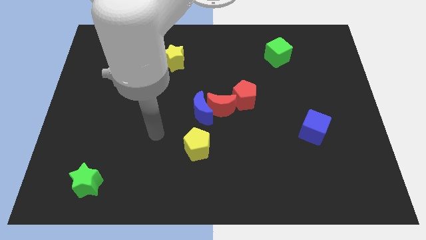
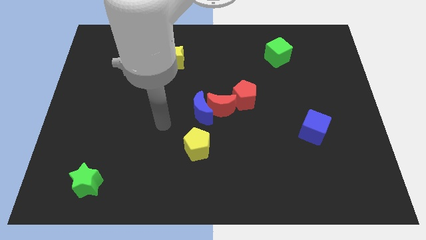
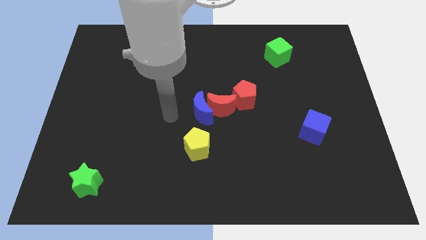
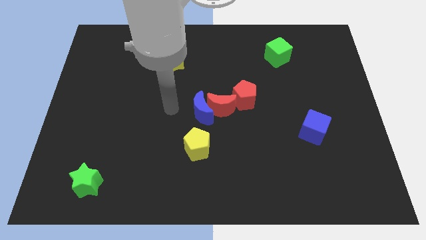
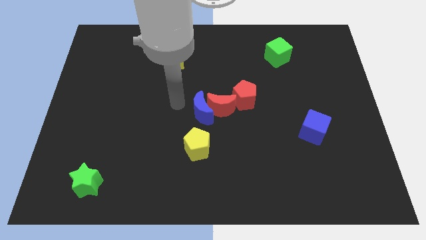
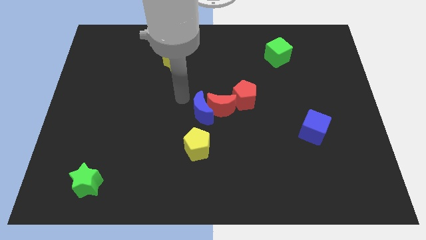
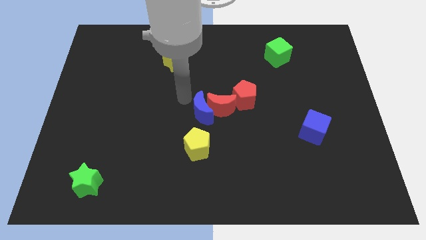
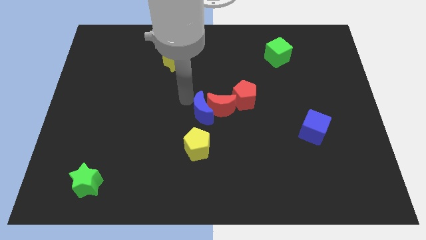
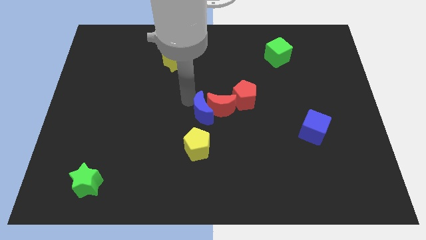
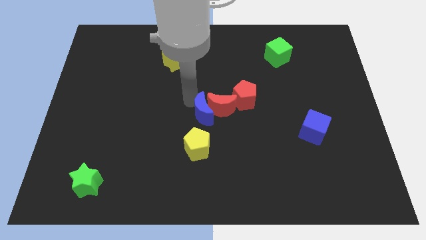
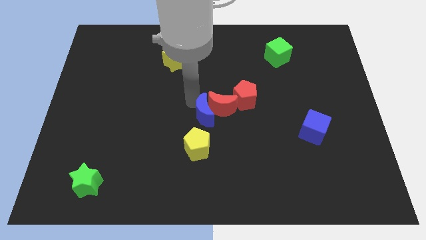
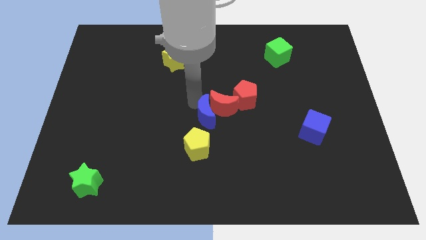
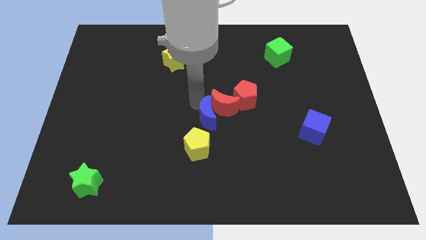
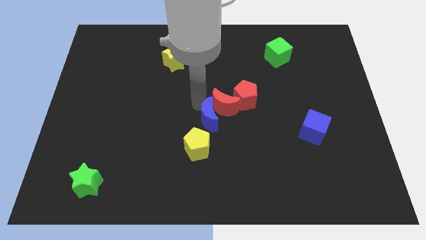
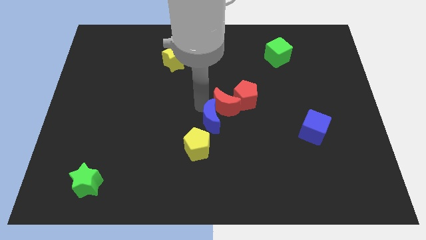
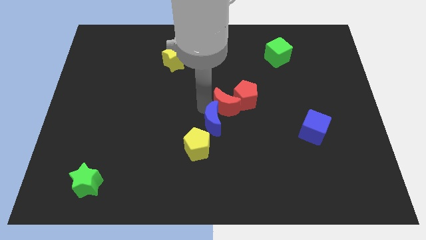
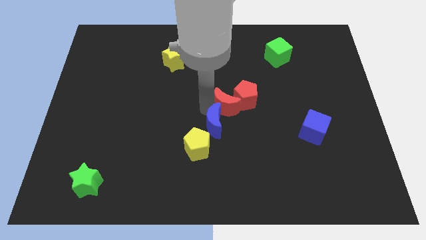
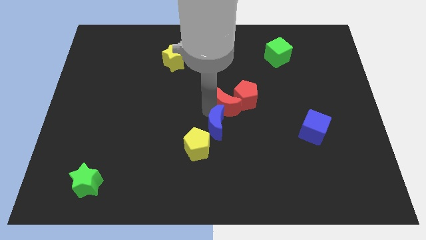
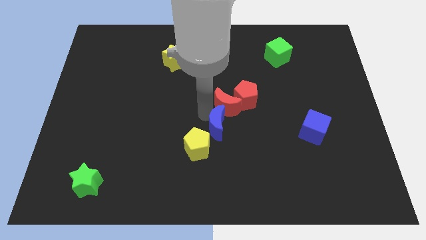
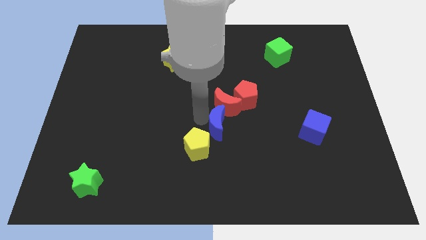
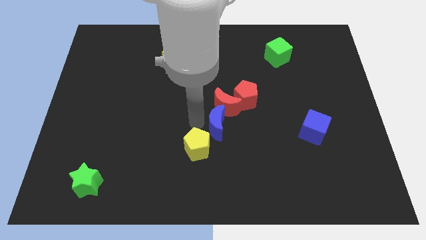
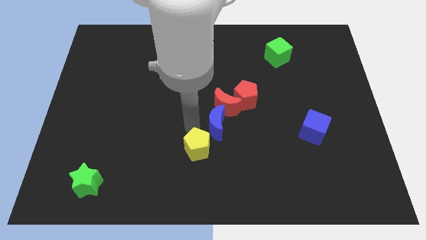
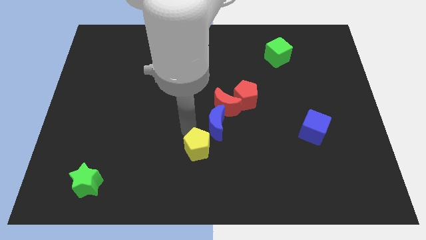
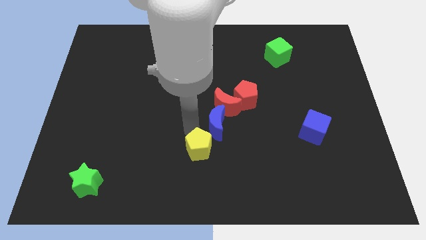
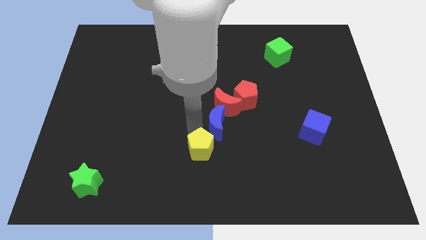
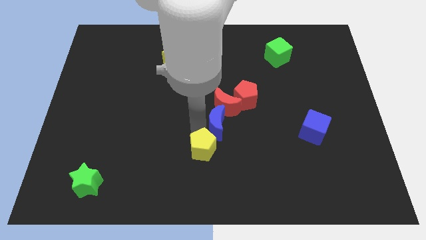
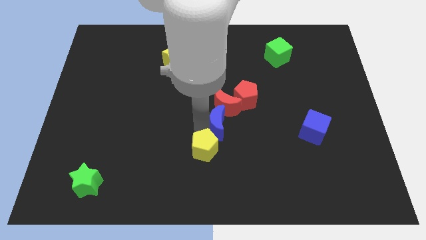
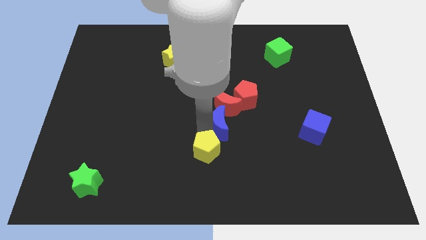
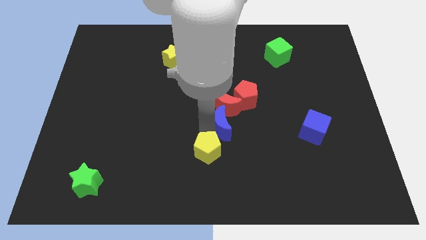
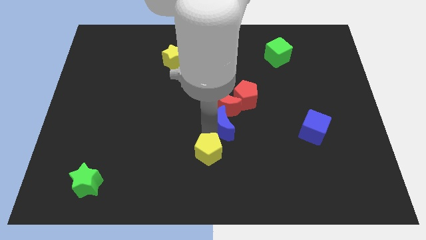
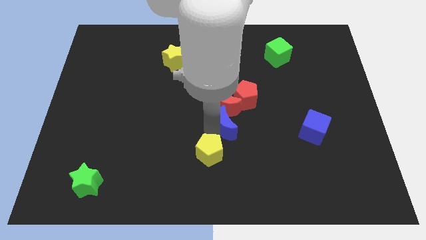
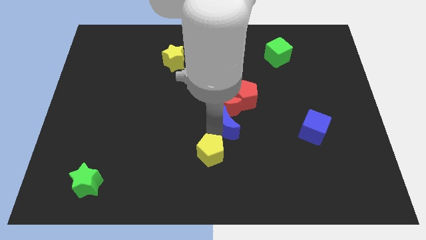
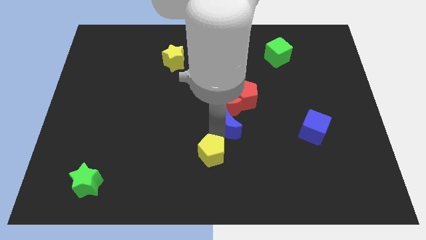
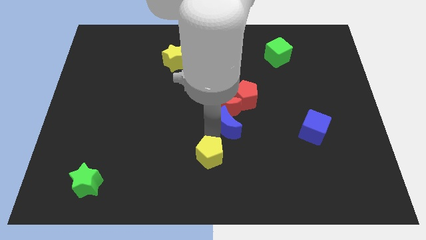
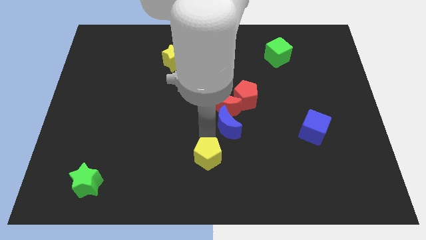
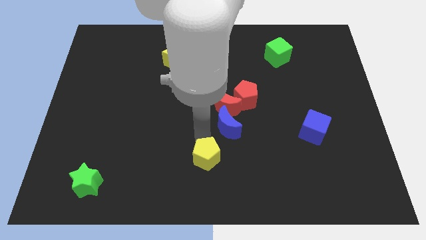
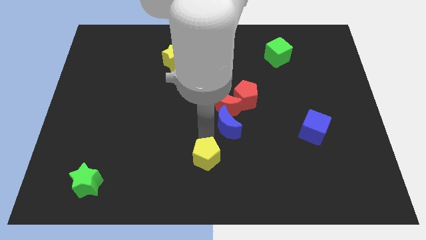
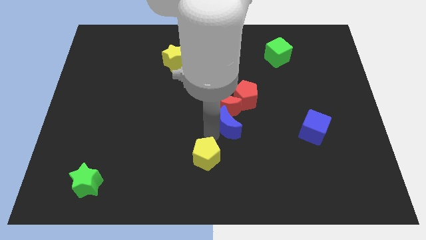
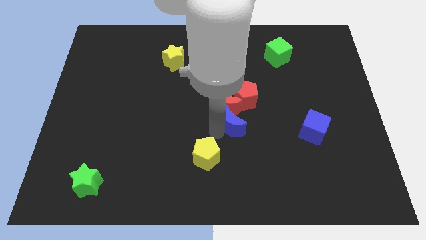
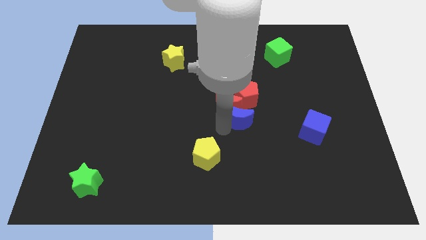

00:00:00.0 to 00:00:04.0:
slightly move the blue moon right

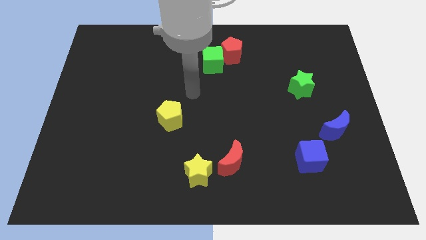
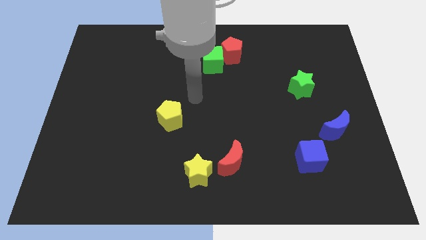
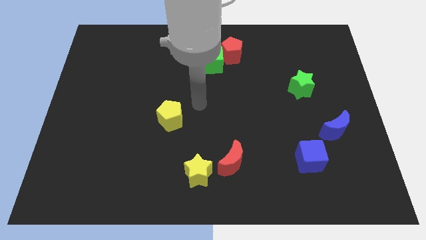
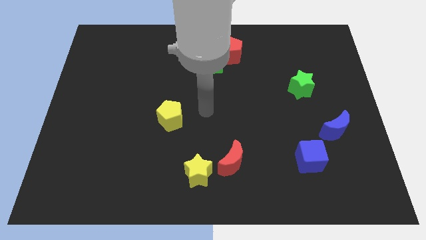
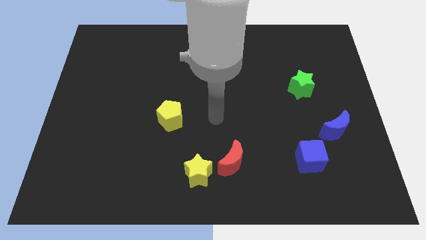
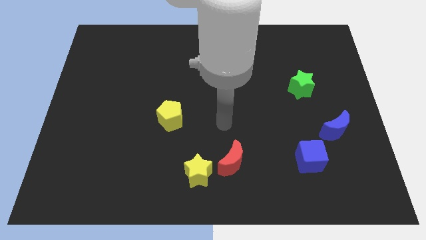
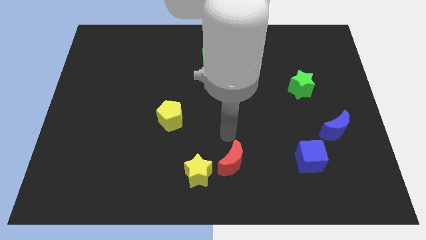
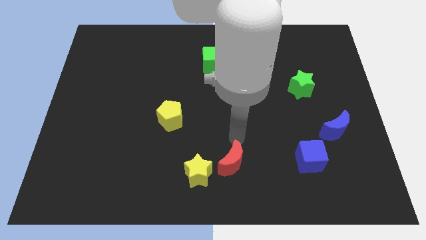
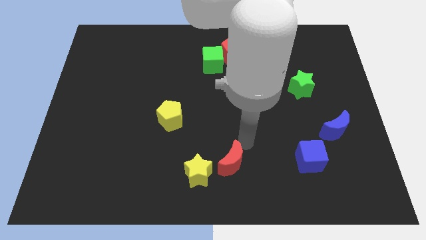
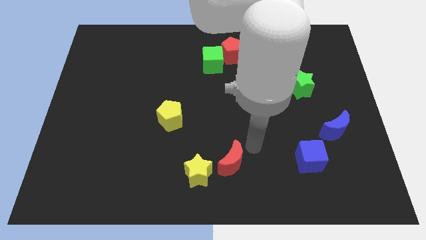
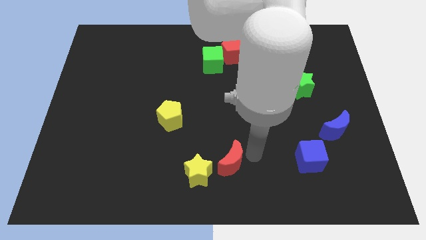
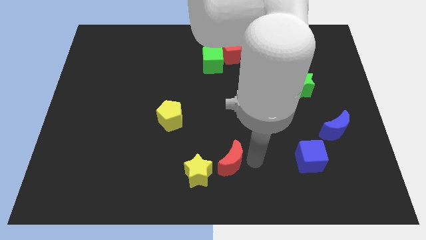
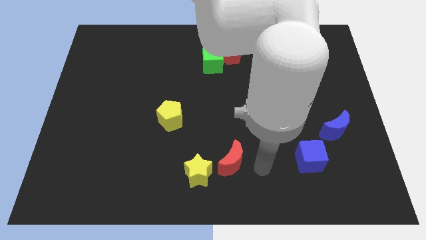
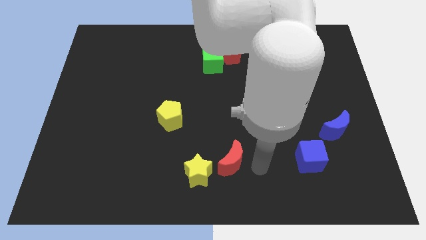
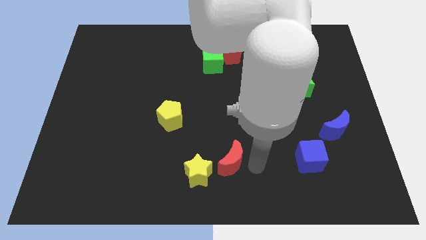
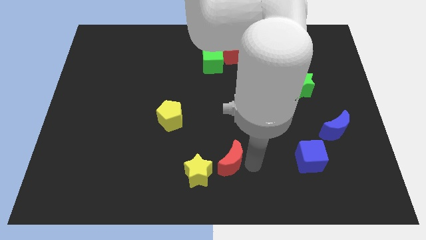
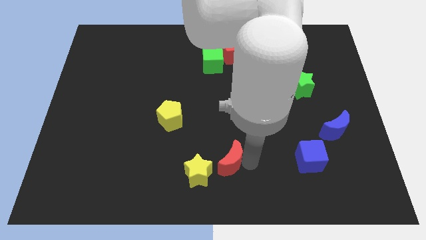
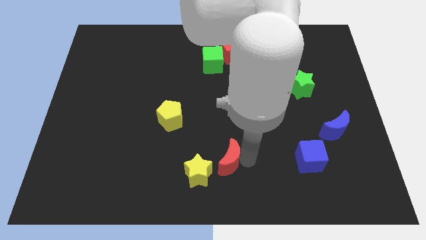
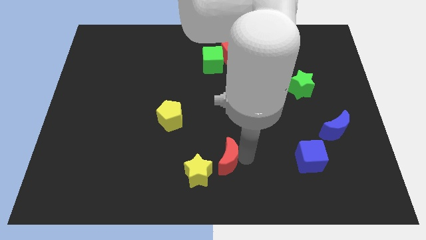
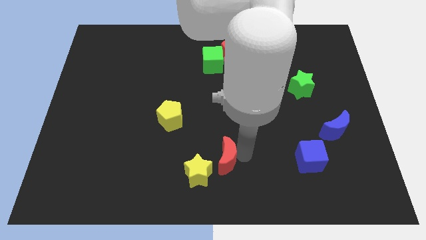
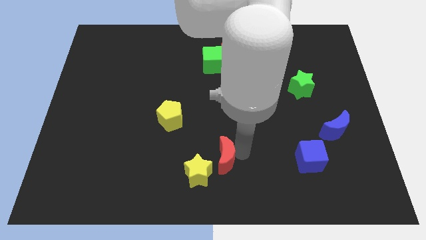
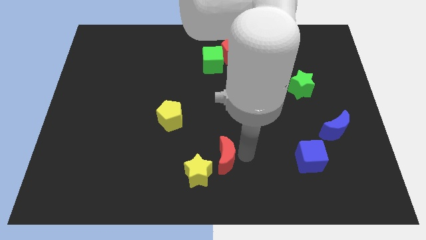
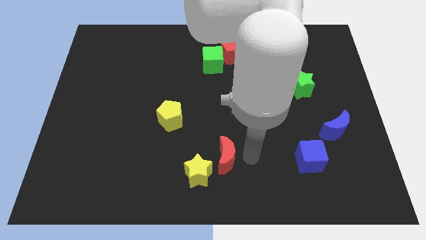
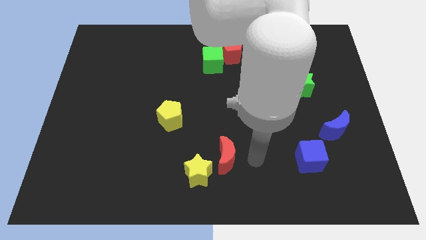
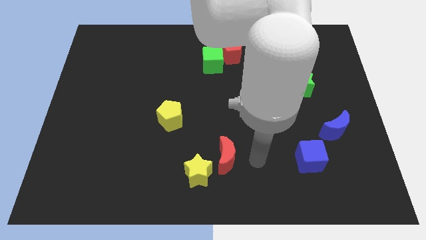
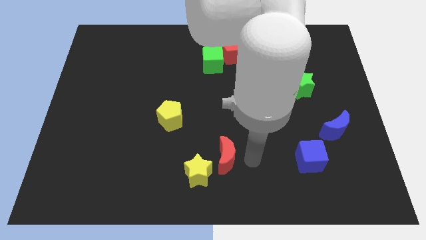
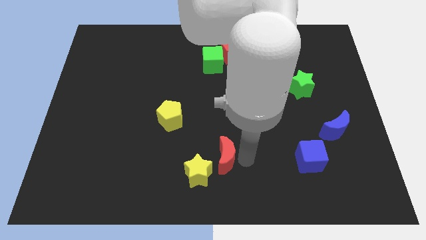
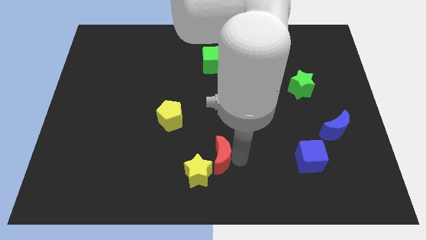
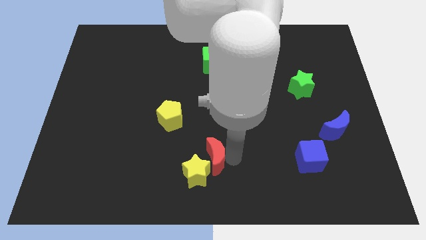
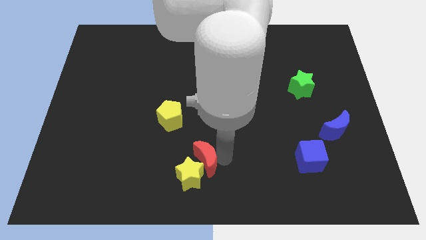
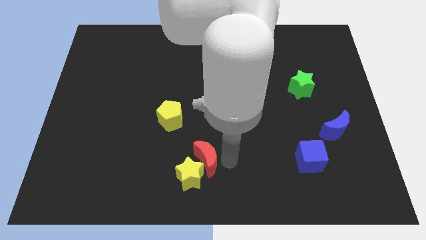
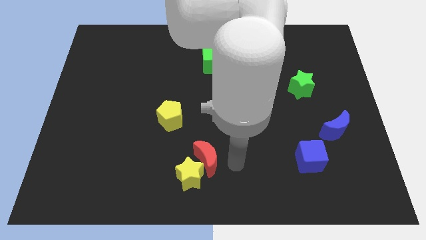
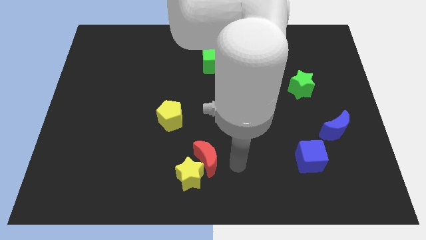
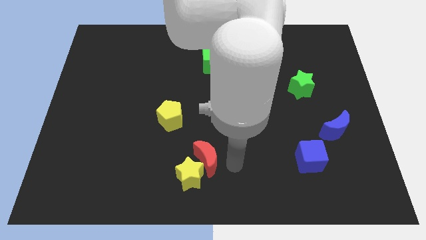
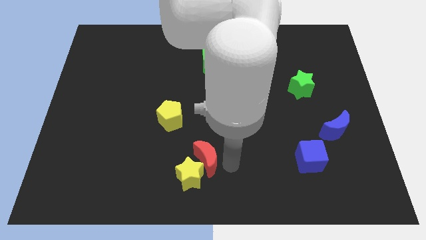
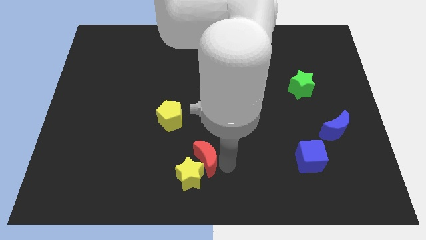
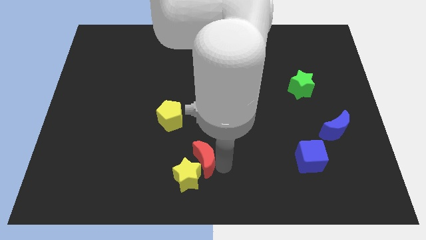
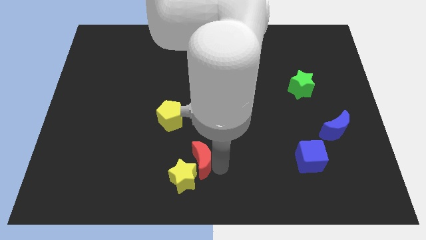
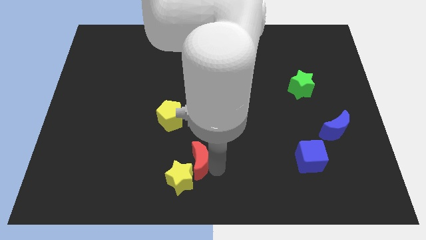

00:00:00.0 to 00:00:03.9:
push the red moon a bit to the left

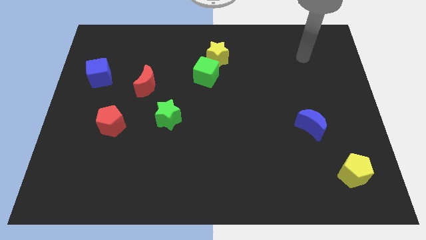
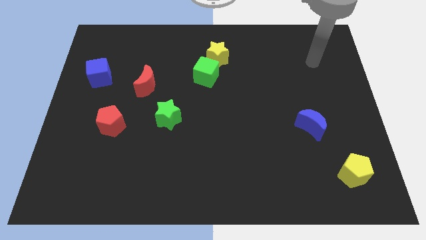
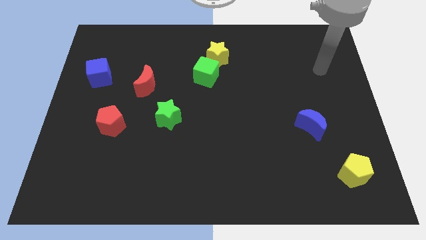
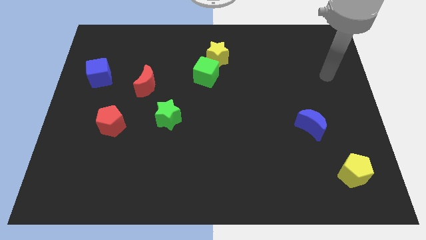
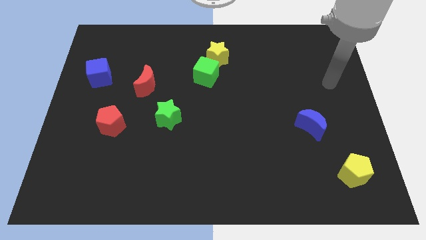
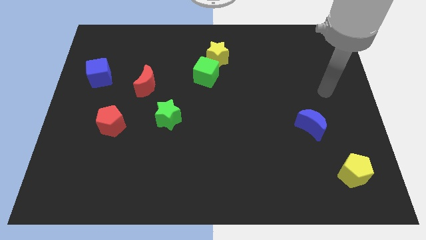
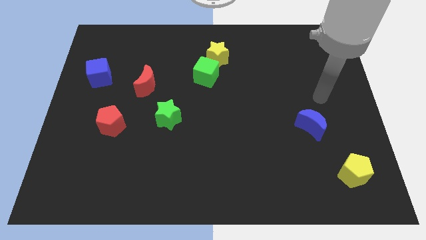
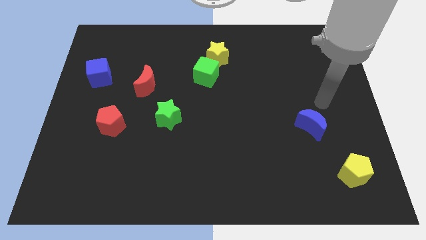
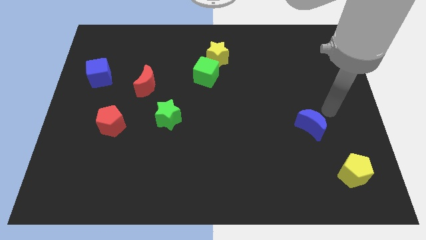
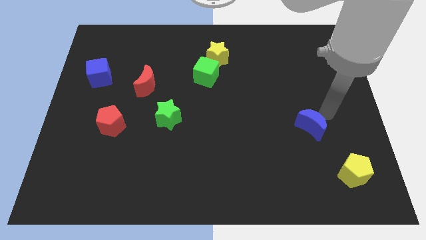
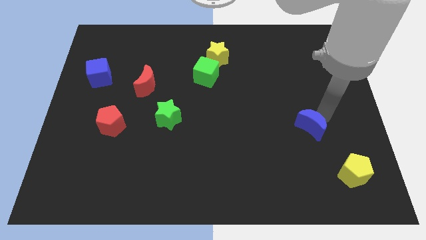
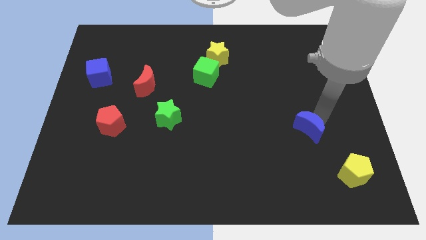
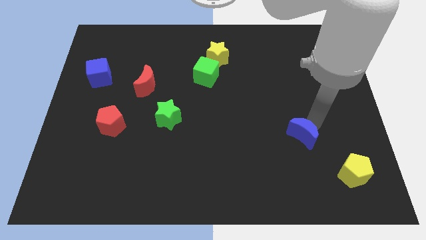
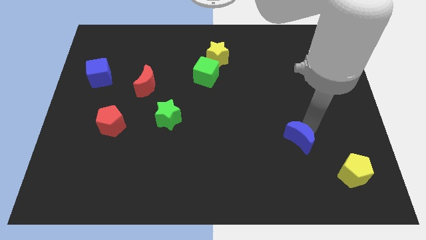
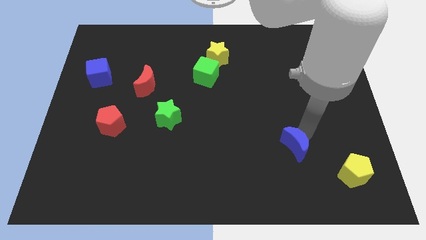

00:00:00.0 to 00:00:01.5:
slide the blue moon downwards and to the left a little bit
